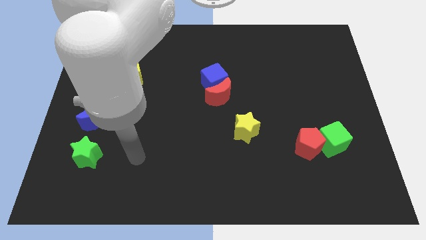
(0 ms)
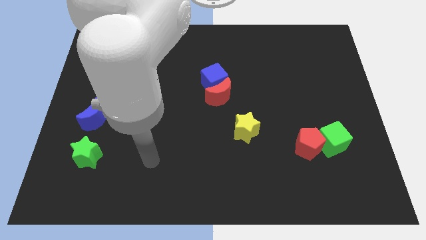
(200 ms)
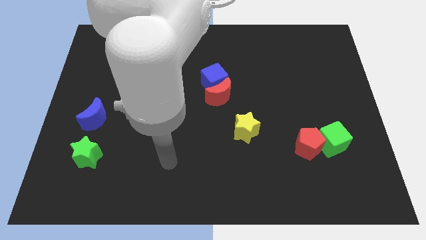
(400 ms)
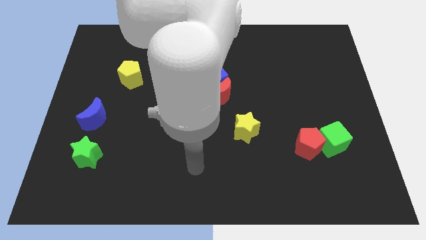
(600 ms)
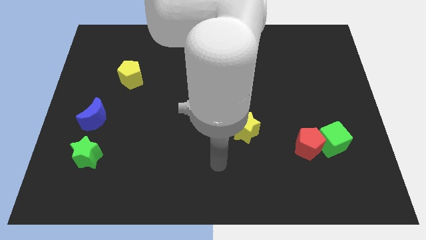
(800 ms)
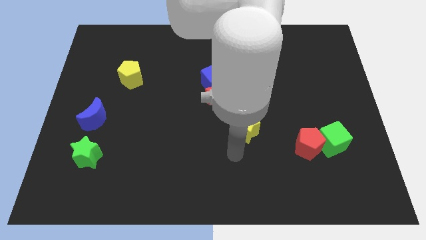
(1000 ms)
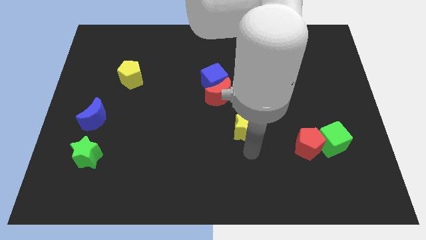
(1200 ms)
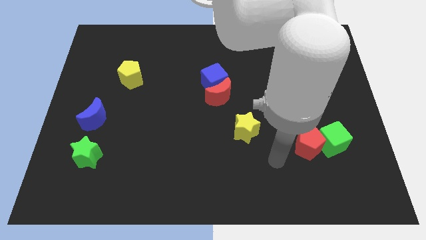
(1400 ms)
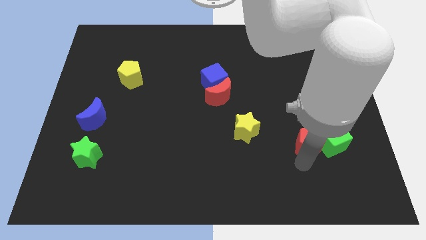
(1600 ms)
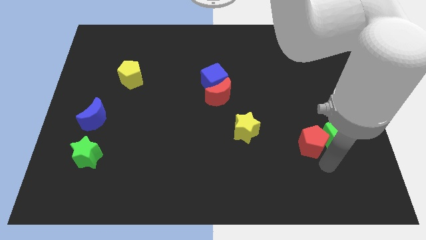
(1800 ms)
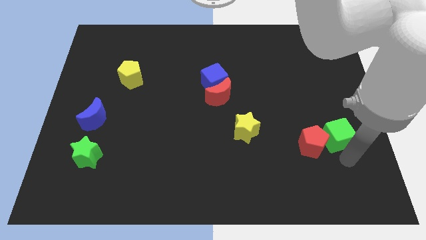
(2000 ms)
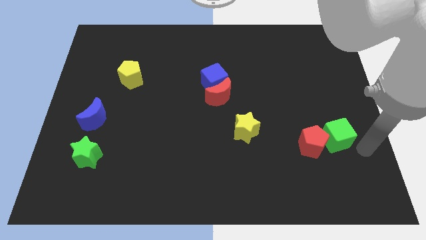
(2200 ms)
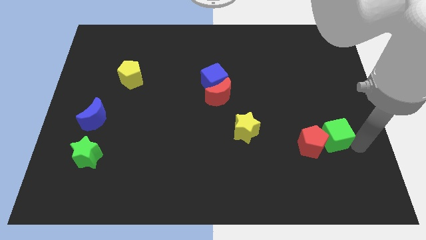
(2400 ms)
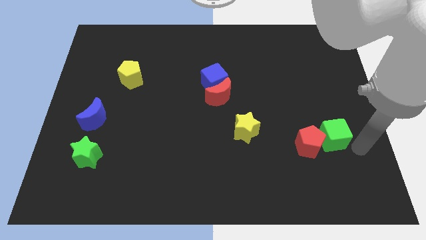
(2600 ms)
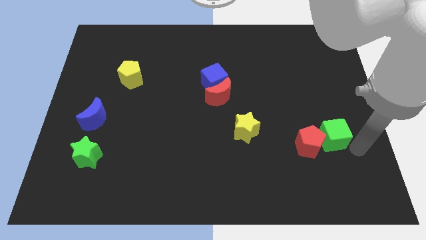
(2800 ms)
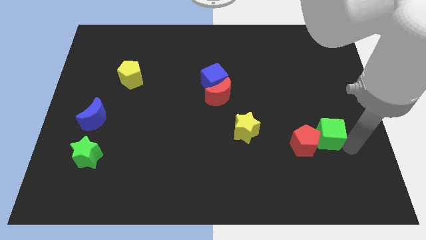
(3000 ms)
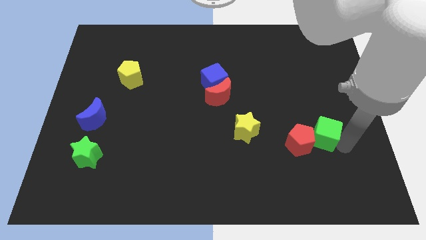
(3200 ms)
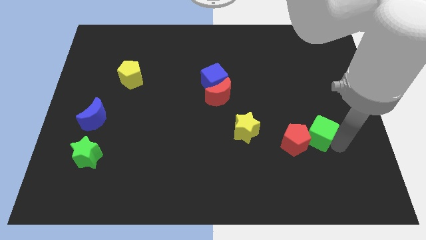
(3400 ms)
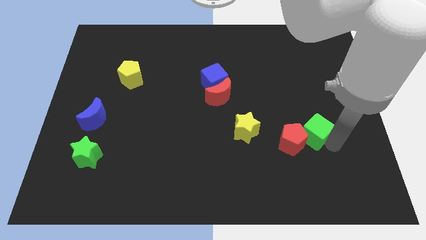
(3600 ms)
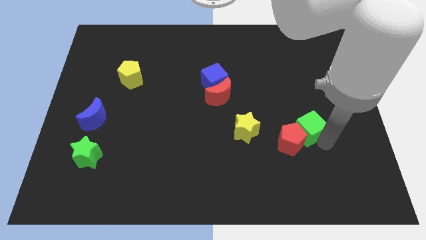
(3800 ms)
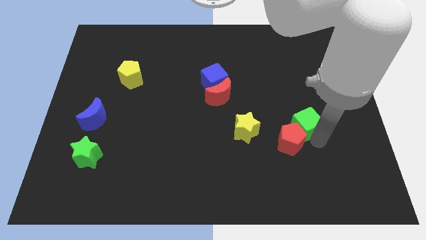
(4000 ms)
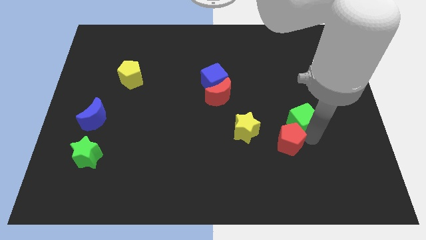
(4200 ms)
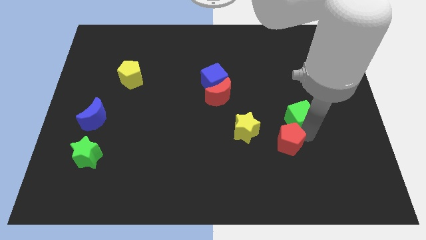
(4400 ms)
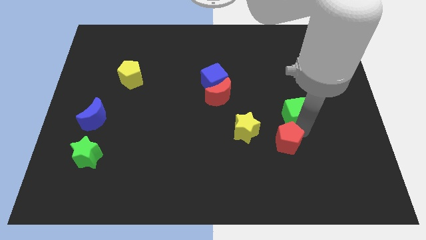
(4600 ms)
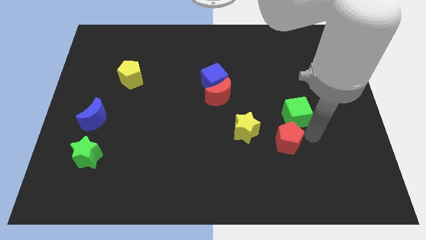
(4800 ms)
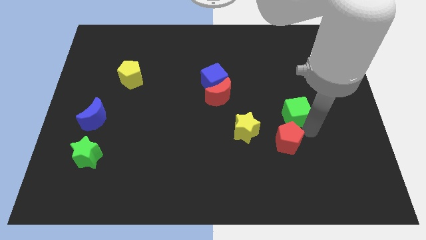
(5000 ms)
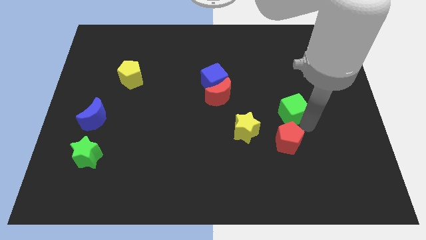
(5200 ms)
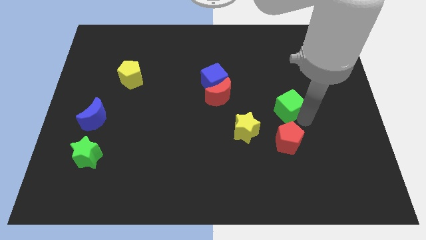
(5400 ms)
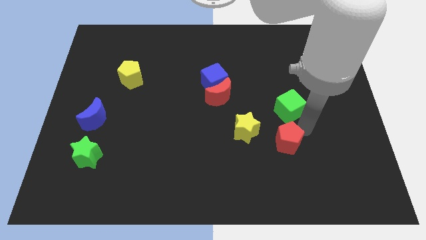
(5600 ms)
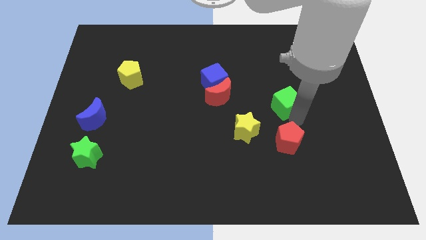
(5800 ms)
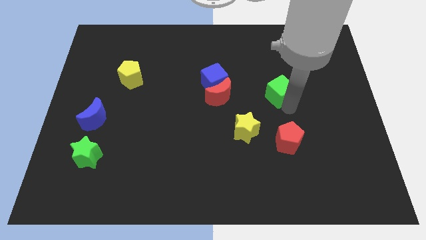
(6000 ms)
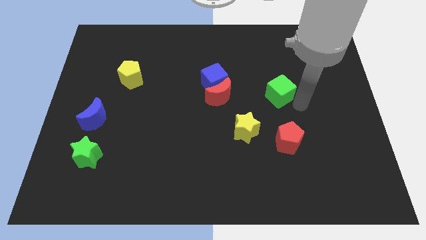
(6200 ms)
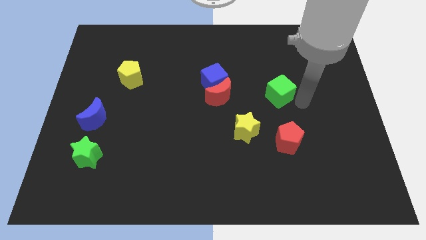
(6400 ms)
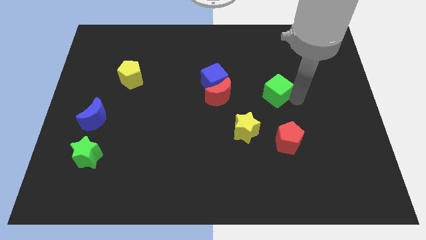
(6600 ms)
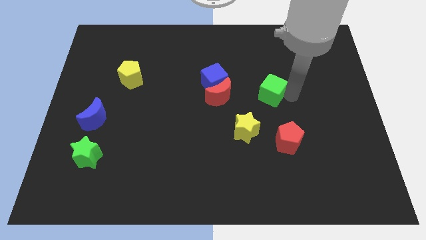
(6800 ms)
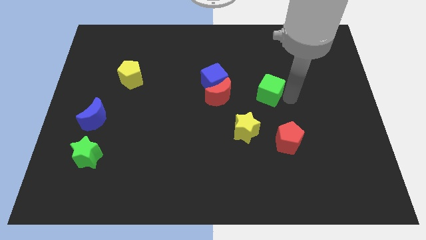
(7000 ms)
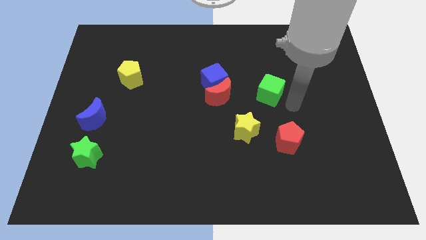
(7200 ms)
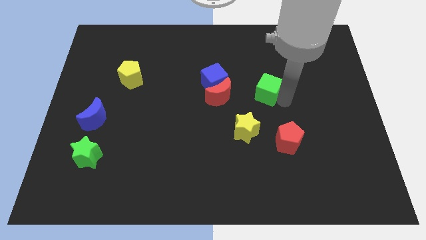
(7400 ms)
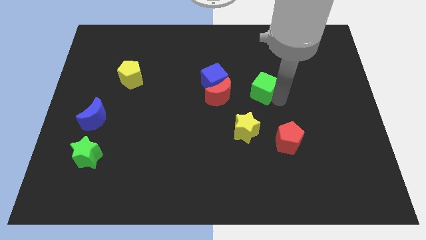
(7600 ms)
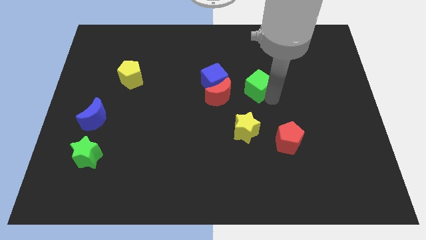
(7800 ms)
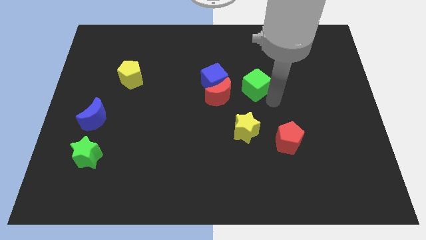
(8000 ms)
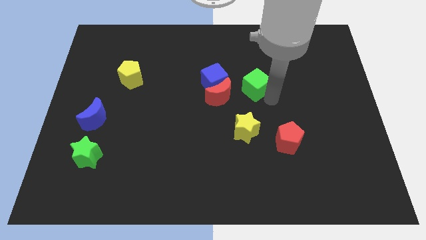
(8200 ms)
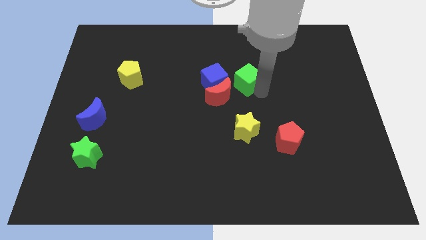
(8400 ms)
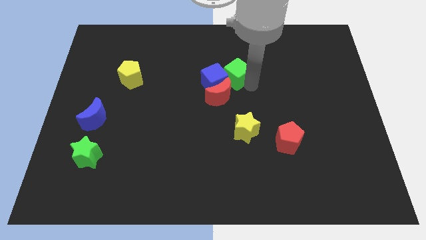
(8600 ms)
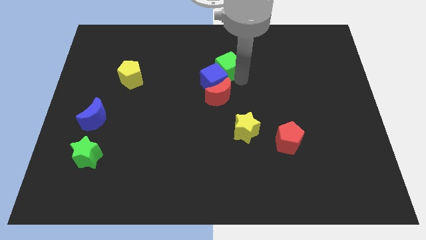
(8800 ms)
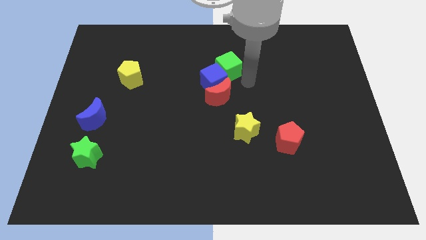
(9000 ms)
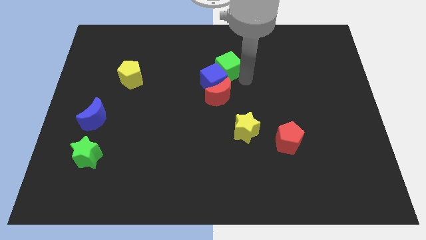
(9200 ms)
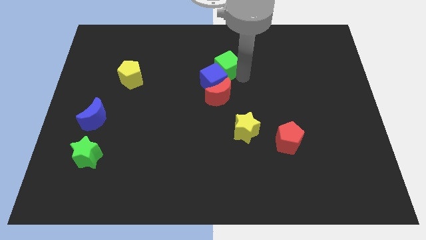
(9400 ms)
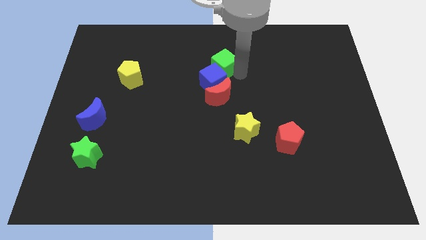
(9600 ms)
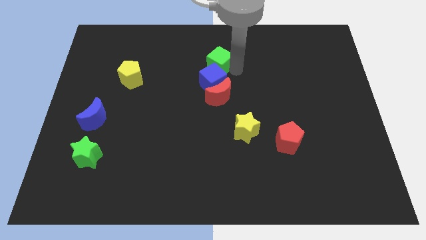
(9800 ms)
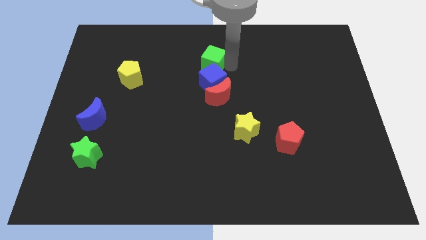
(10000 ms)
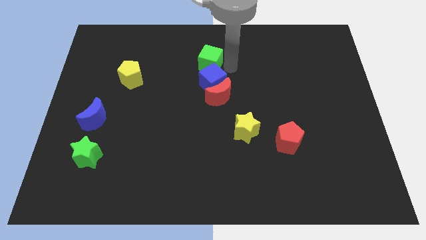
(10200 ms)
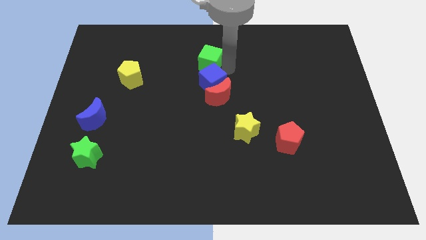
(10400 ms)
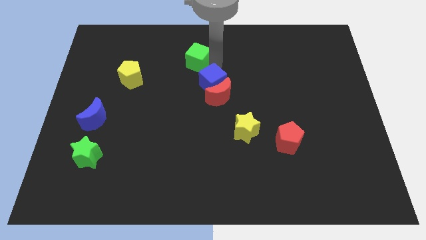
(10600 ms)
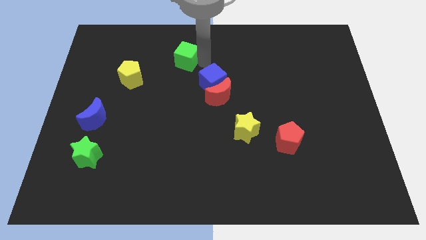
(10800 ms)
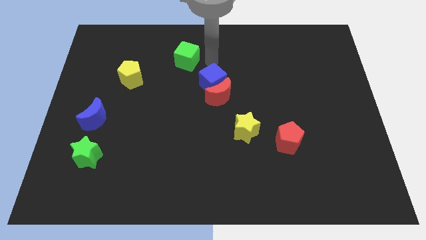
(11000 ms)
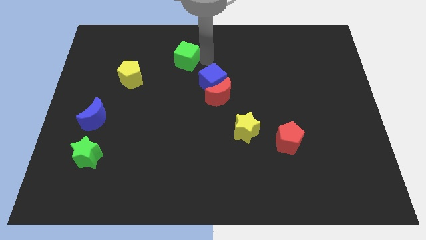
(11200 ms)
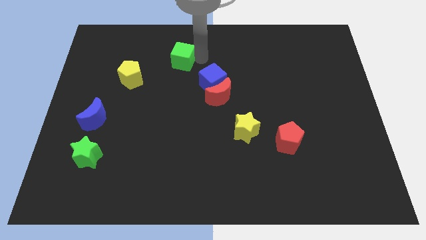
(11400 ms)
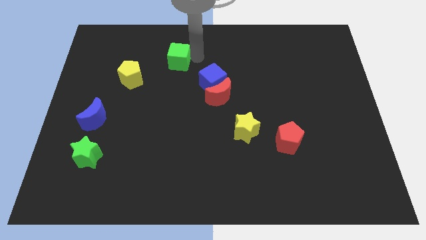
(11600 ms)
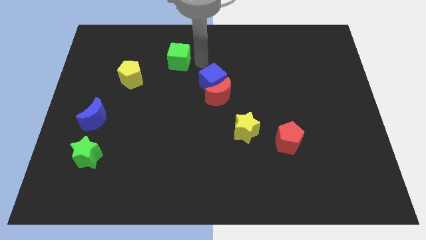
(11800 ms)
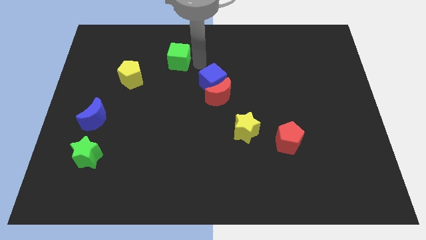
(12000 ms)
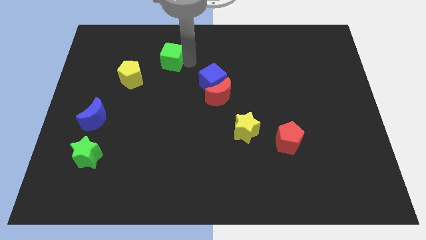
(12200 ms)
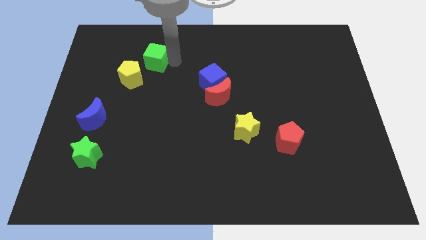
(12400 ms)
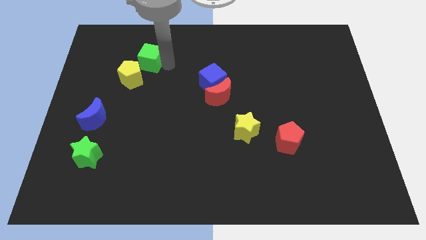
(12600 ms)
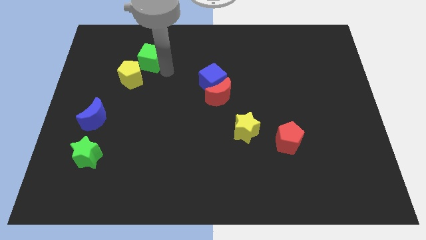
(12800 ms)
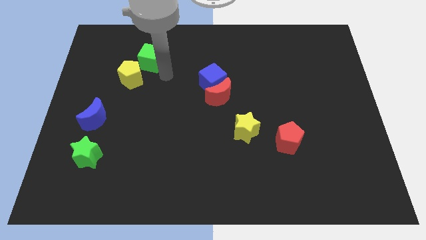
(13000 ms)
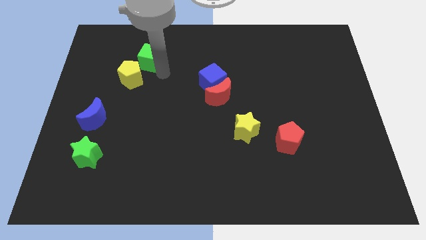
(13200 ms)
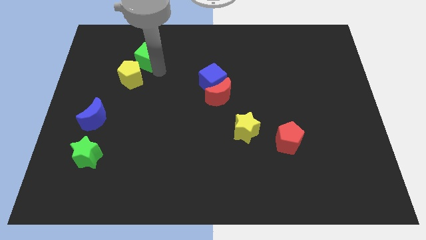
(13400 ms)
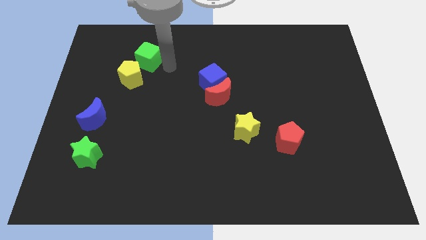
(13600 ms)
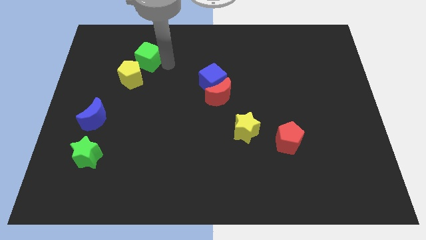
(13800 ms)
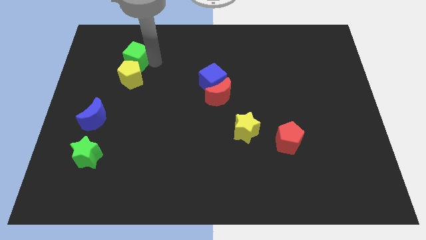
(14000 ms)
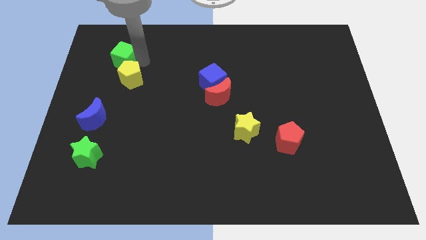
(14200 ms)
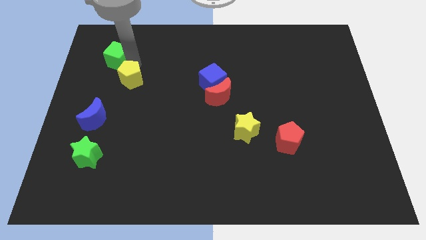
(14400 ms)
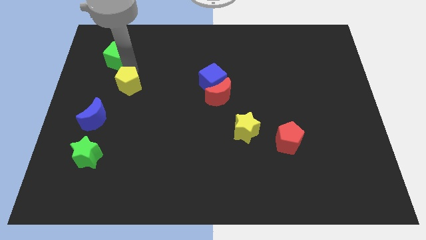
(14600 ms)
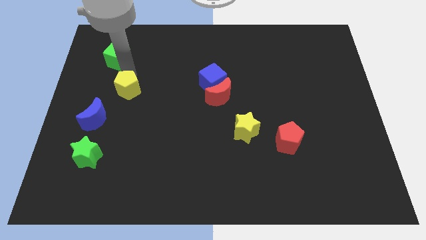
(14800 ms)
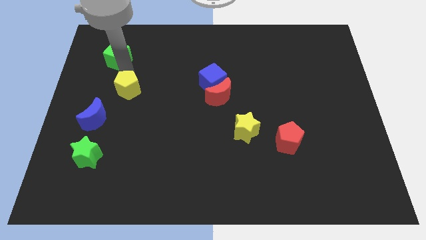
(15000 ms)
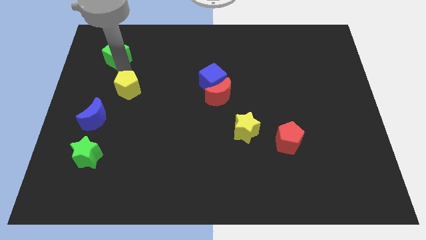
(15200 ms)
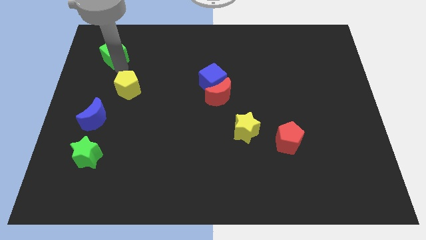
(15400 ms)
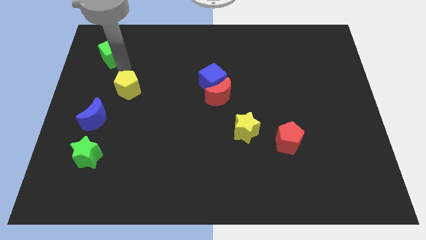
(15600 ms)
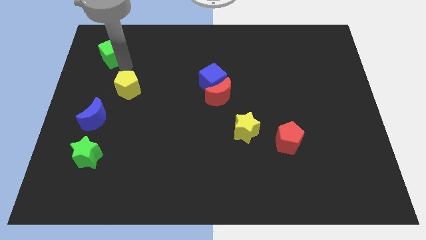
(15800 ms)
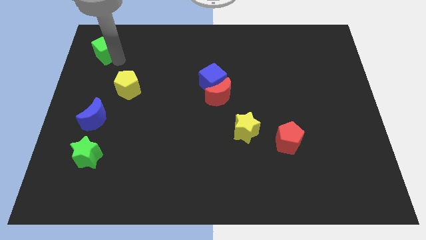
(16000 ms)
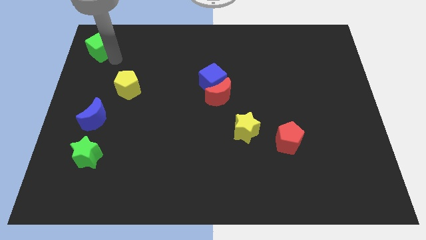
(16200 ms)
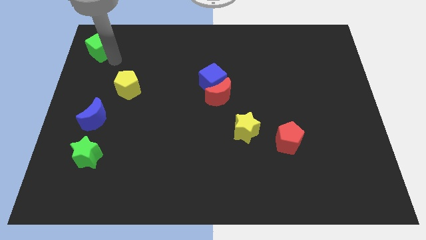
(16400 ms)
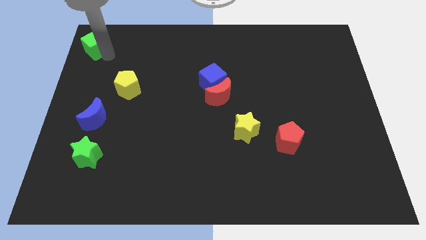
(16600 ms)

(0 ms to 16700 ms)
put the green cube to the top left corner
